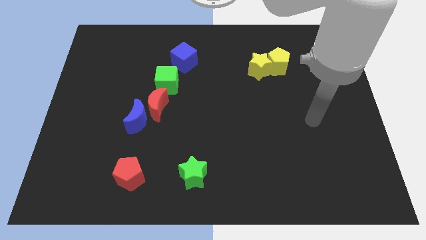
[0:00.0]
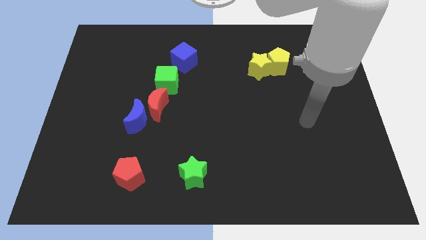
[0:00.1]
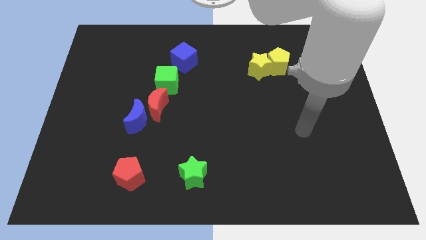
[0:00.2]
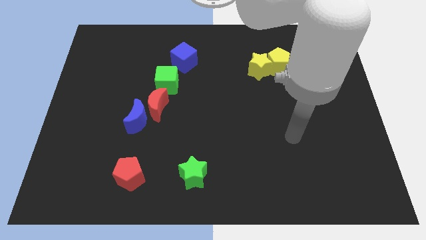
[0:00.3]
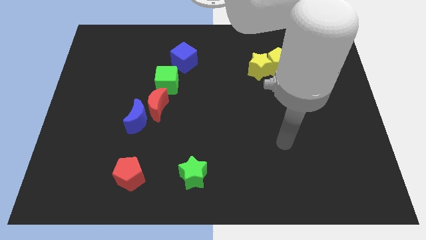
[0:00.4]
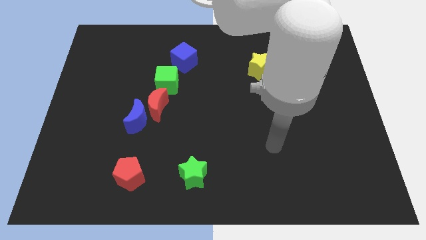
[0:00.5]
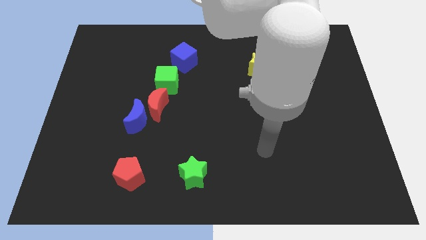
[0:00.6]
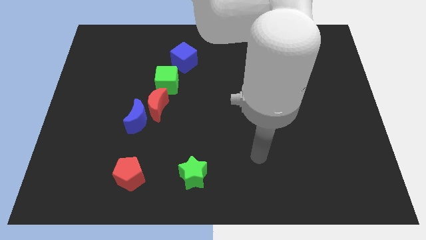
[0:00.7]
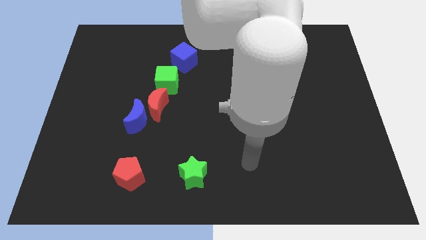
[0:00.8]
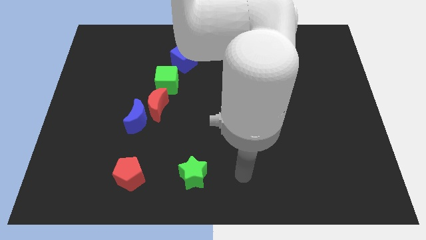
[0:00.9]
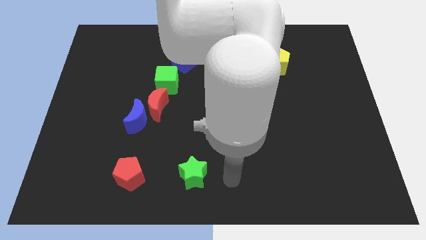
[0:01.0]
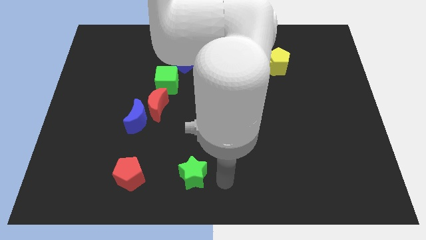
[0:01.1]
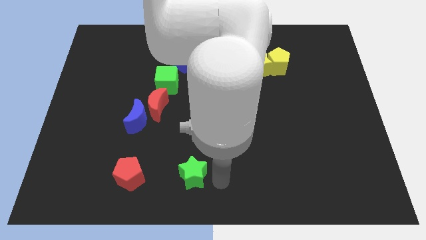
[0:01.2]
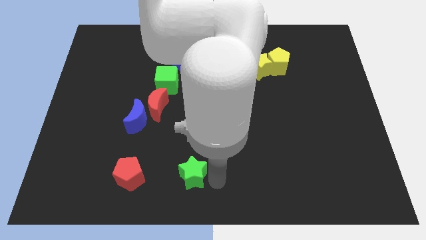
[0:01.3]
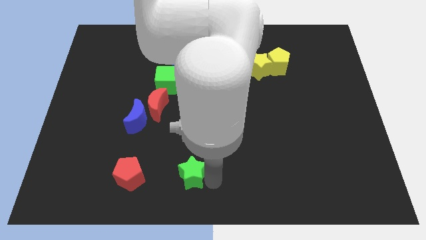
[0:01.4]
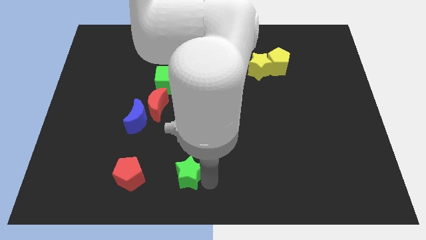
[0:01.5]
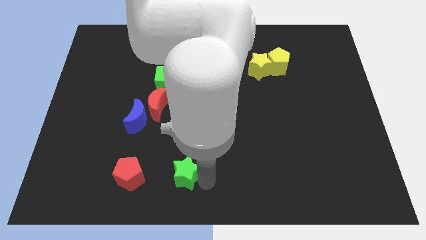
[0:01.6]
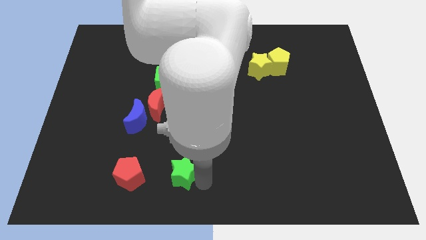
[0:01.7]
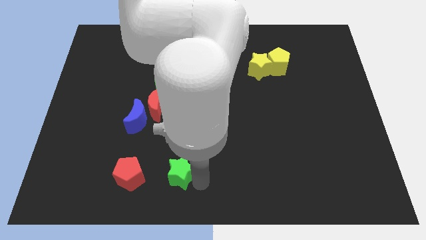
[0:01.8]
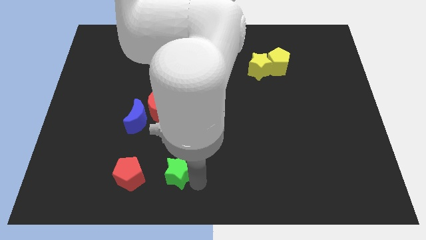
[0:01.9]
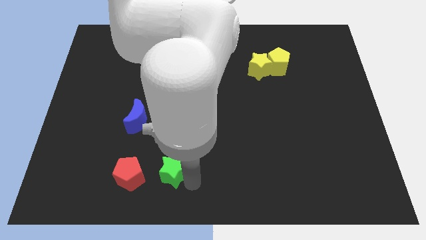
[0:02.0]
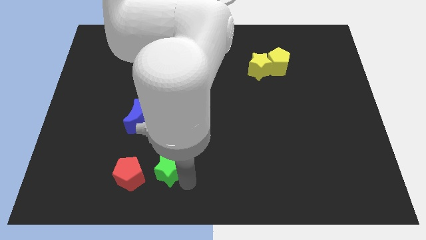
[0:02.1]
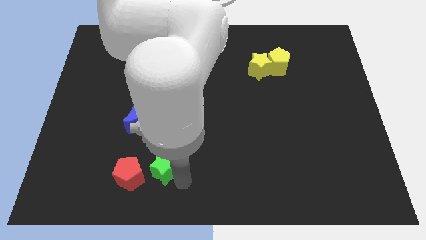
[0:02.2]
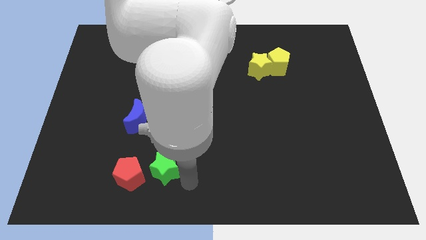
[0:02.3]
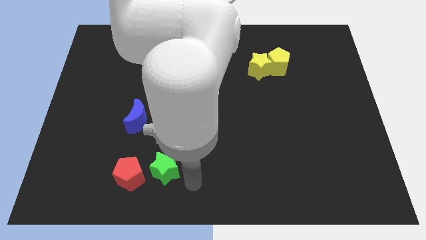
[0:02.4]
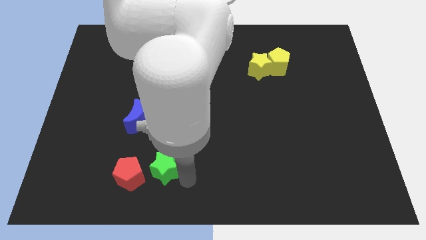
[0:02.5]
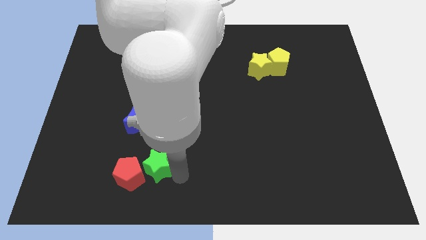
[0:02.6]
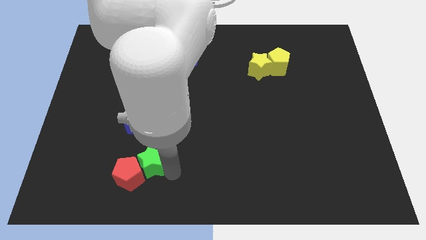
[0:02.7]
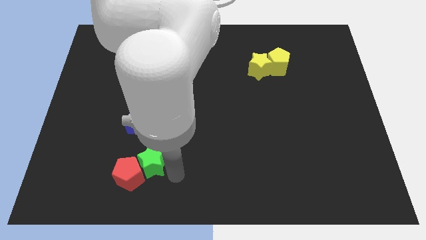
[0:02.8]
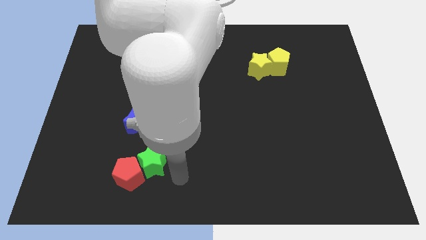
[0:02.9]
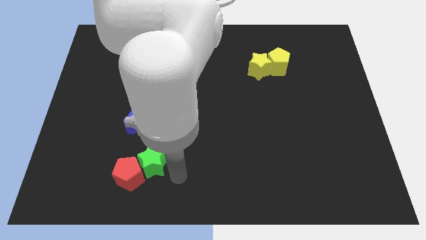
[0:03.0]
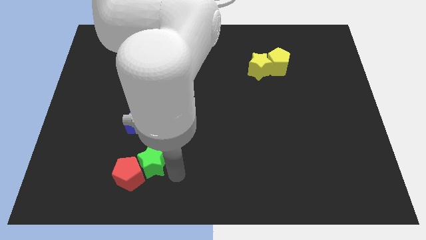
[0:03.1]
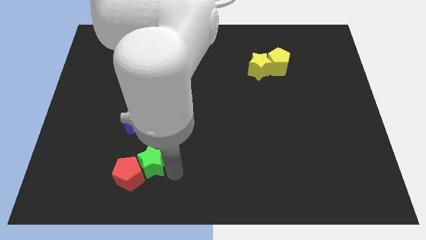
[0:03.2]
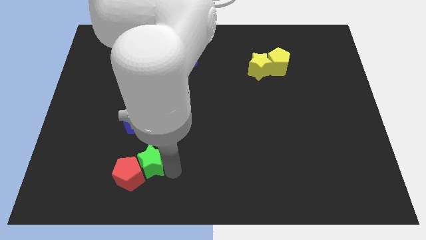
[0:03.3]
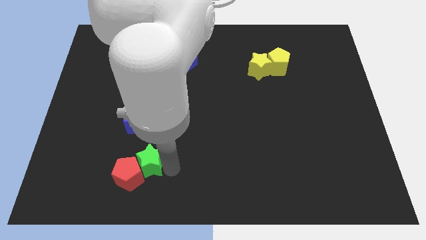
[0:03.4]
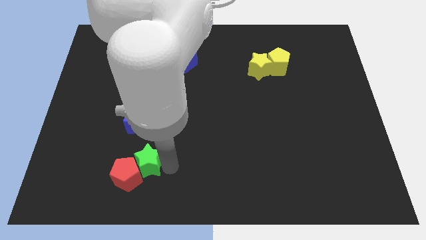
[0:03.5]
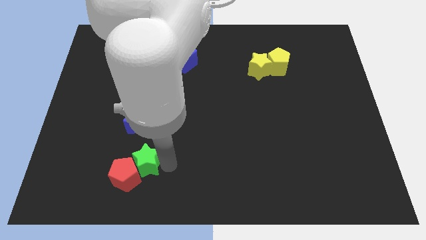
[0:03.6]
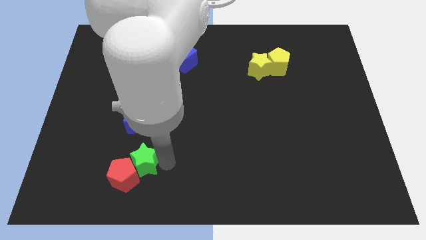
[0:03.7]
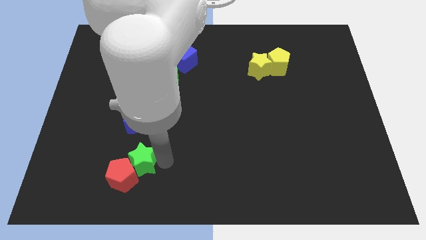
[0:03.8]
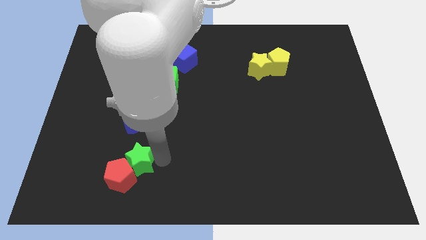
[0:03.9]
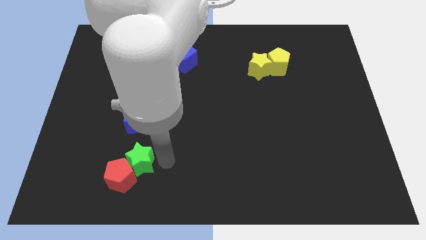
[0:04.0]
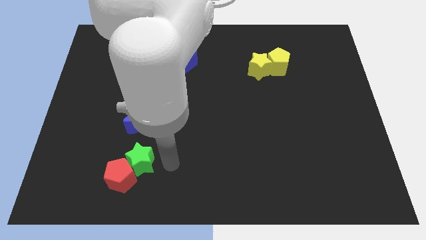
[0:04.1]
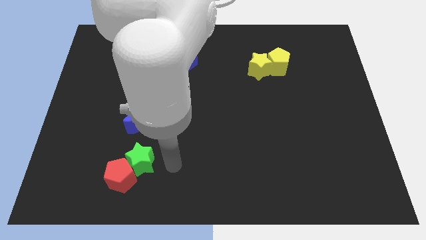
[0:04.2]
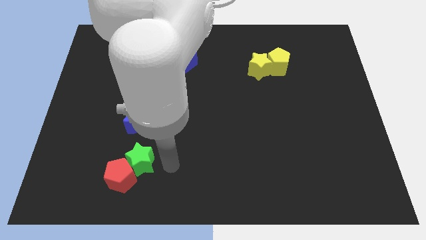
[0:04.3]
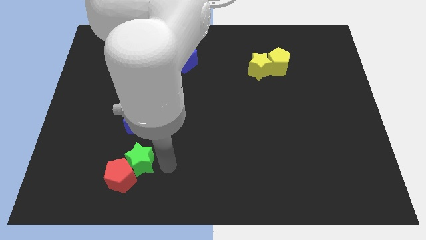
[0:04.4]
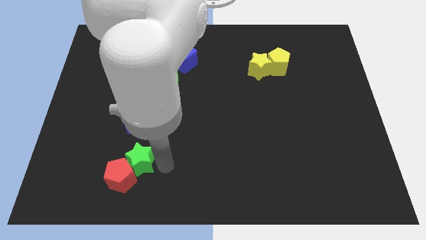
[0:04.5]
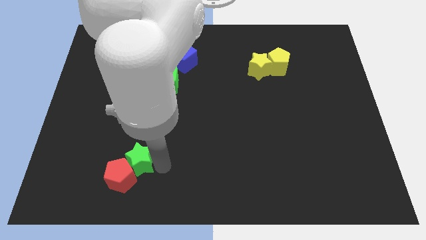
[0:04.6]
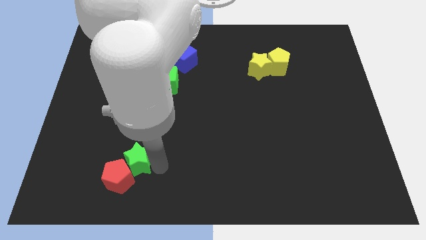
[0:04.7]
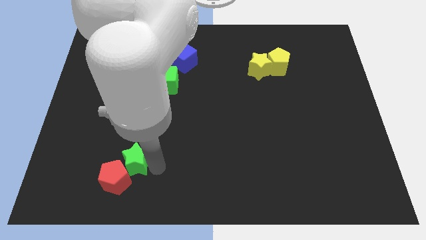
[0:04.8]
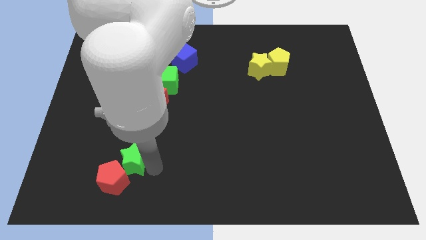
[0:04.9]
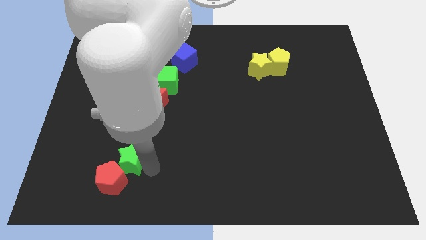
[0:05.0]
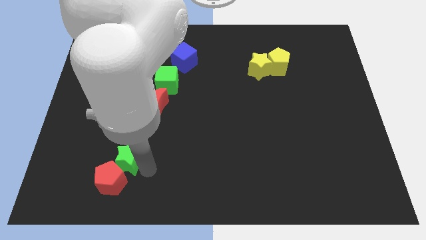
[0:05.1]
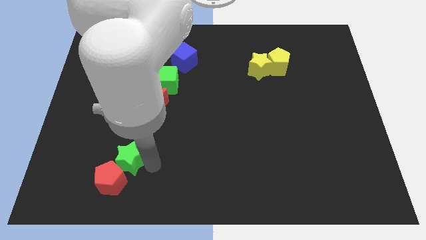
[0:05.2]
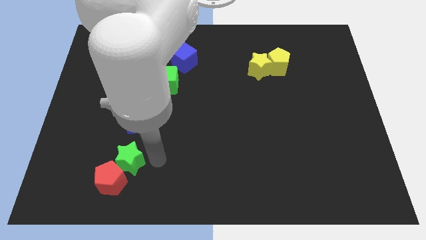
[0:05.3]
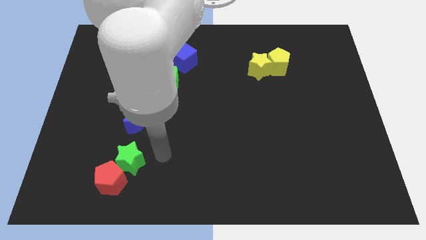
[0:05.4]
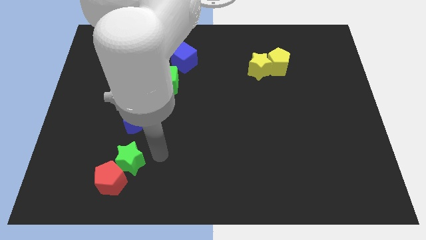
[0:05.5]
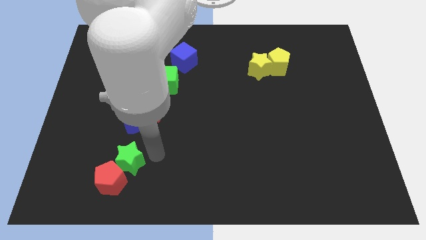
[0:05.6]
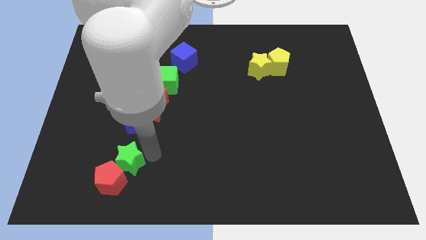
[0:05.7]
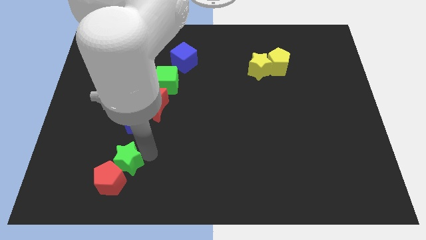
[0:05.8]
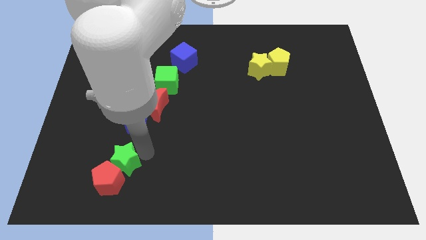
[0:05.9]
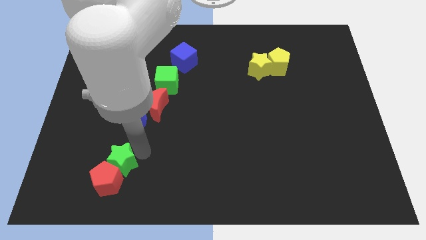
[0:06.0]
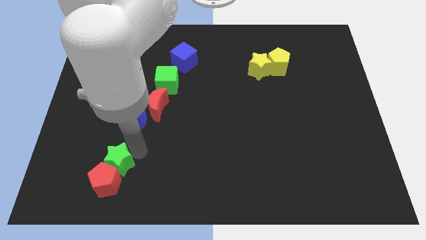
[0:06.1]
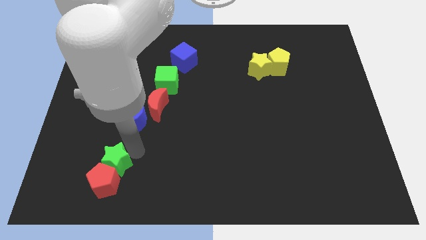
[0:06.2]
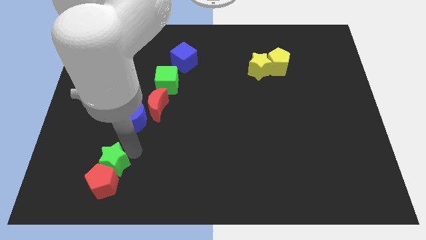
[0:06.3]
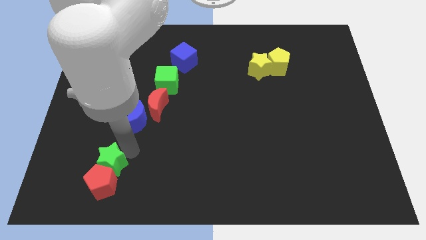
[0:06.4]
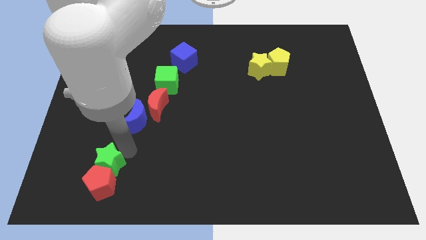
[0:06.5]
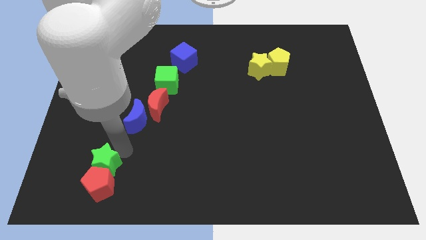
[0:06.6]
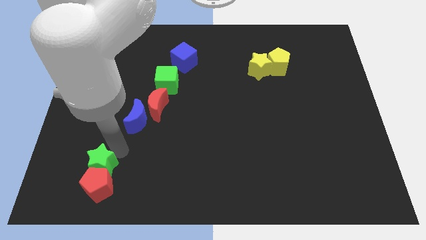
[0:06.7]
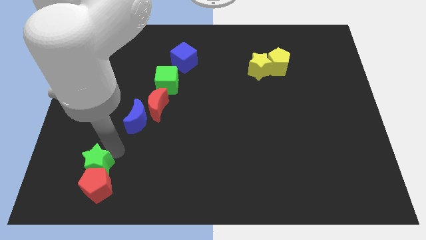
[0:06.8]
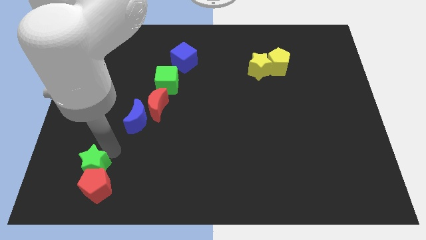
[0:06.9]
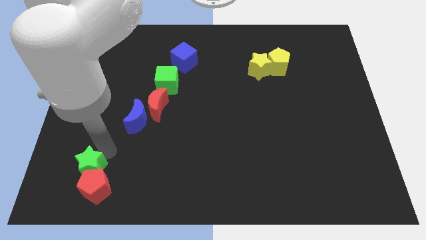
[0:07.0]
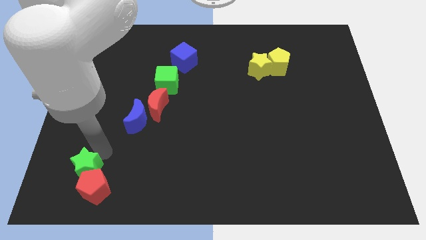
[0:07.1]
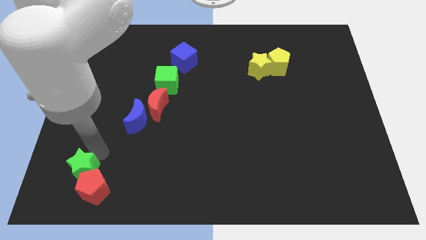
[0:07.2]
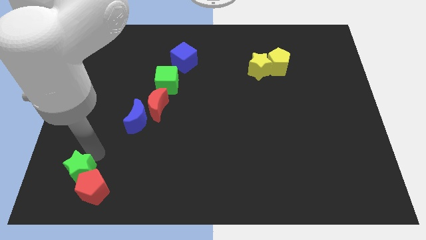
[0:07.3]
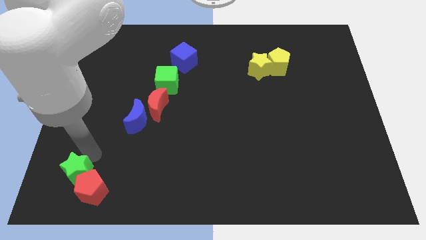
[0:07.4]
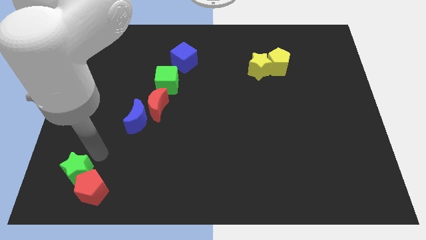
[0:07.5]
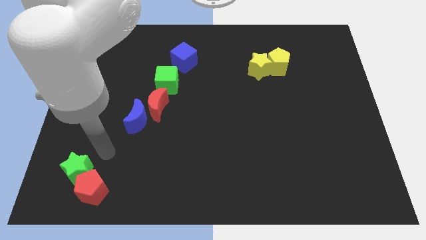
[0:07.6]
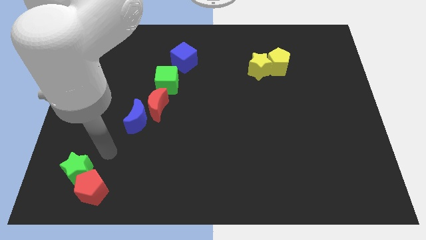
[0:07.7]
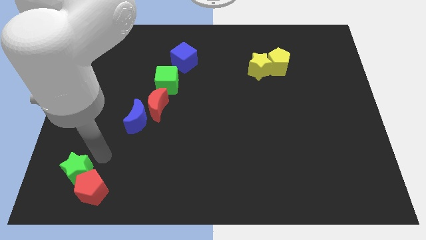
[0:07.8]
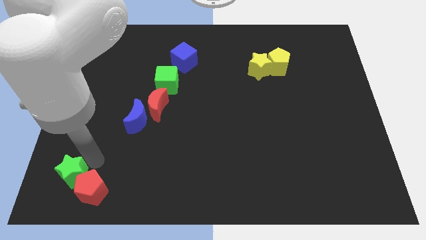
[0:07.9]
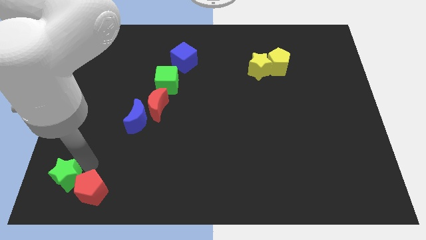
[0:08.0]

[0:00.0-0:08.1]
push the green star to the bottom left corner
